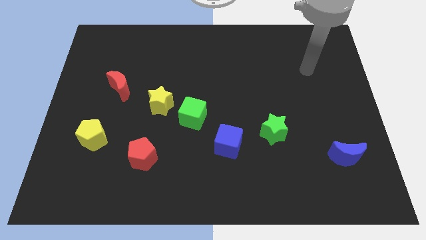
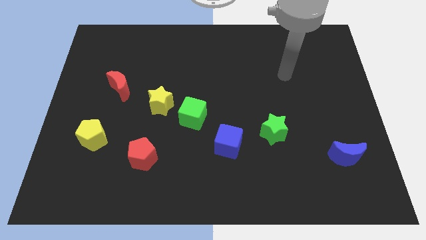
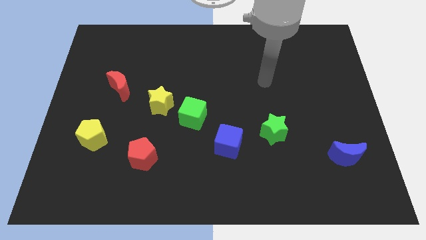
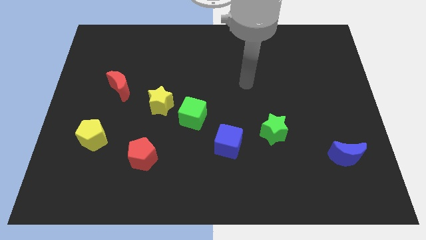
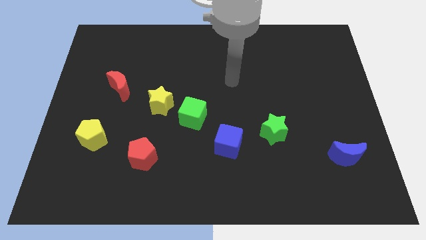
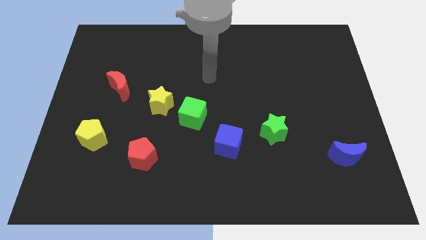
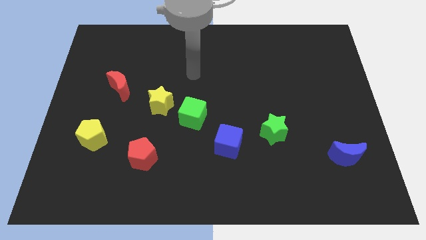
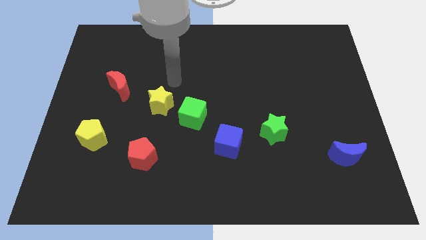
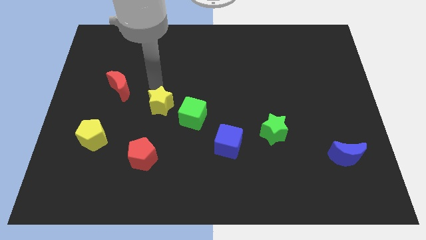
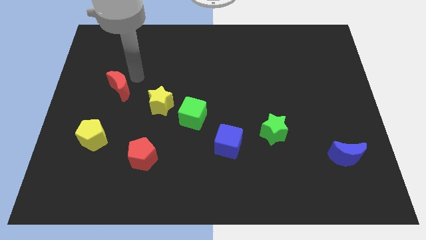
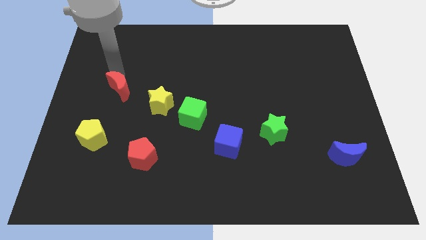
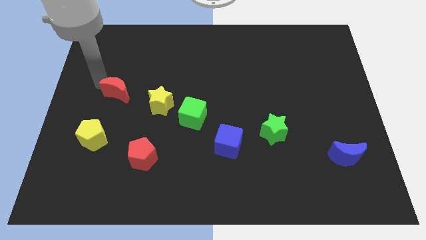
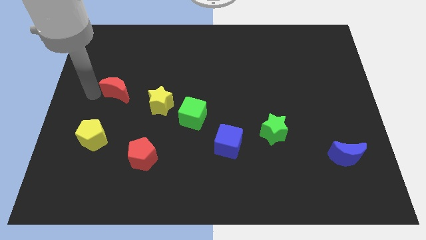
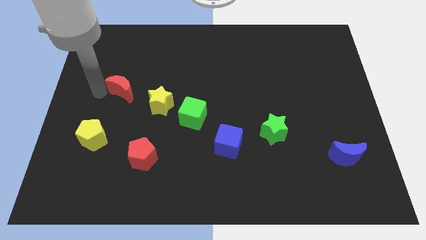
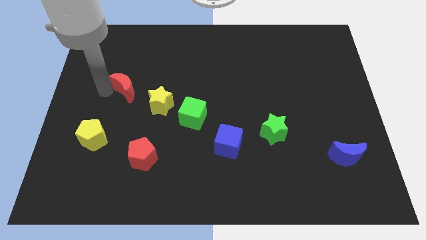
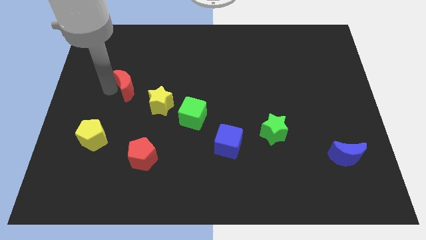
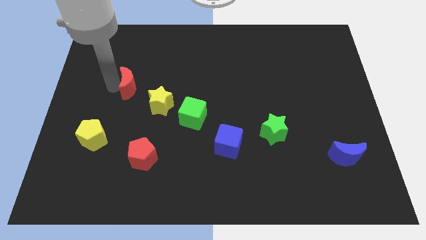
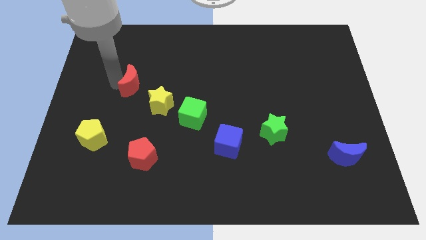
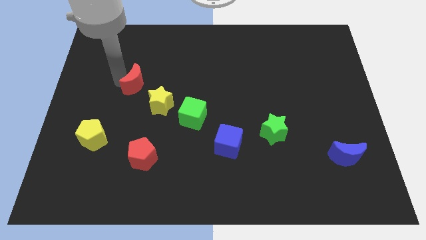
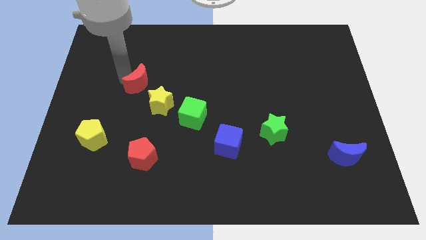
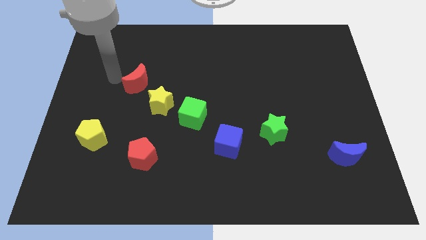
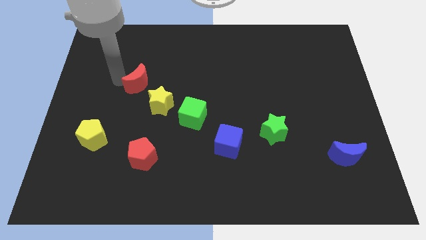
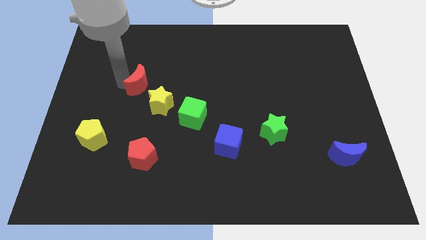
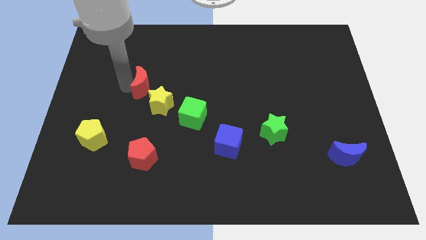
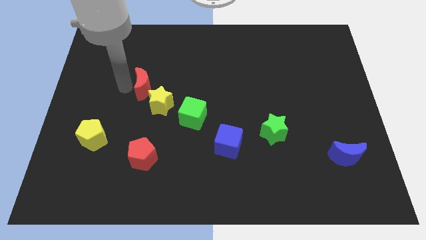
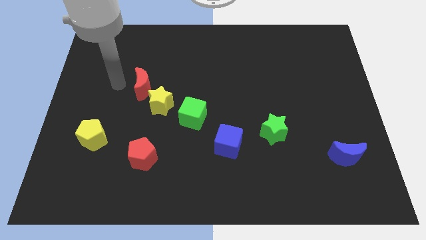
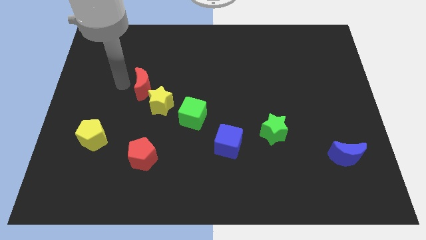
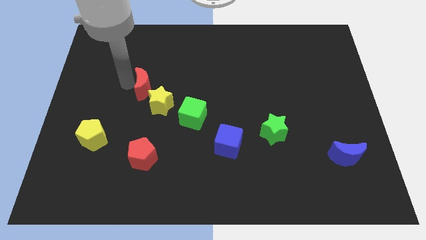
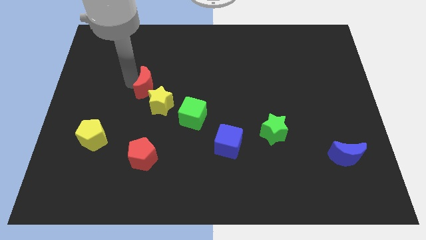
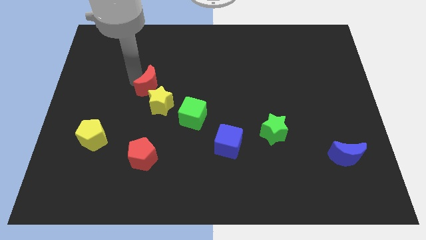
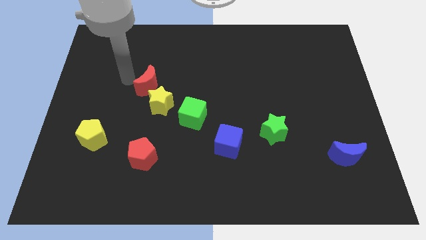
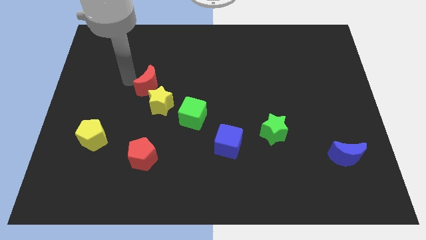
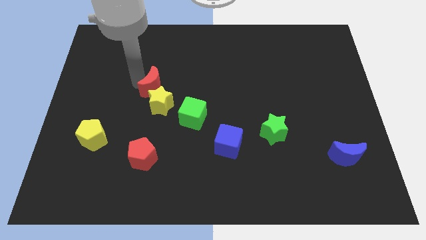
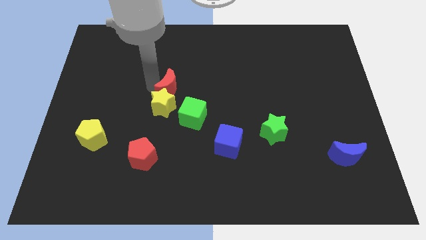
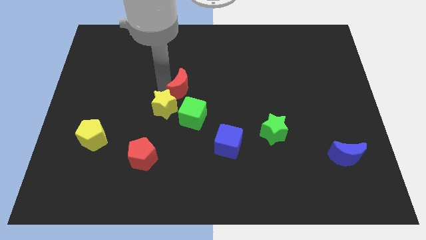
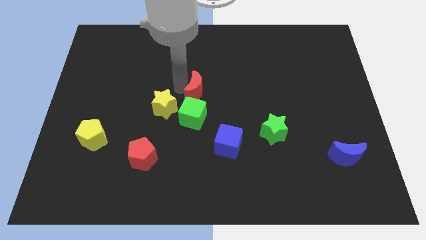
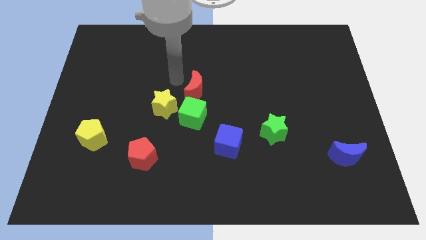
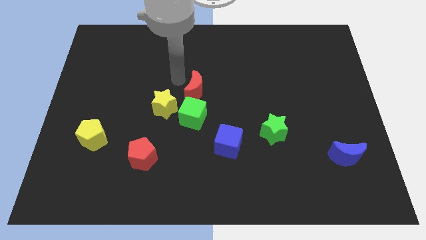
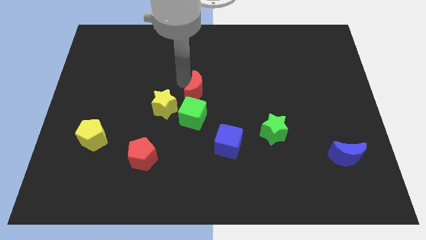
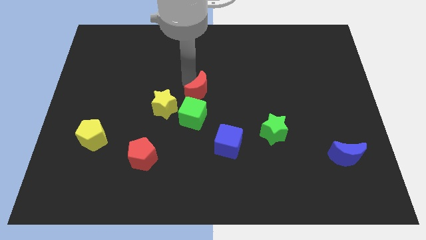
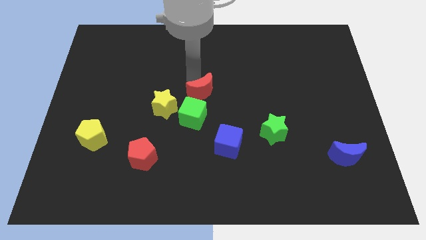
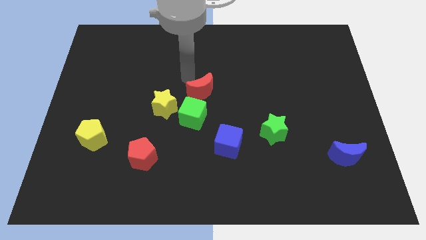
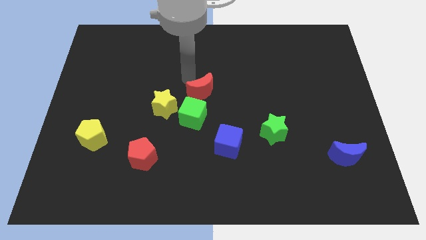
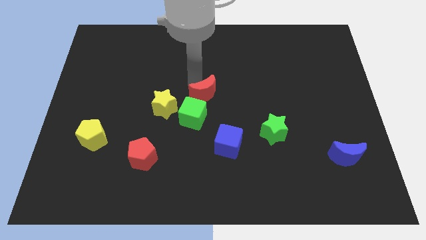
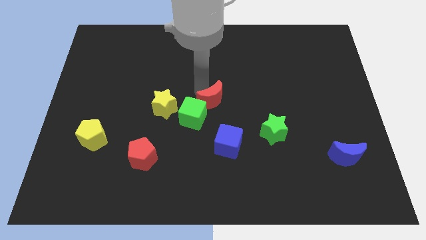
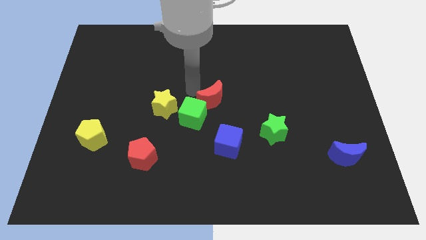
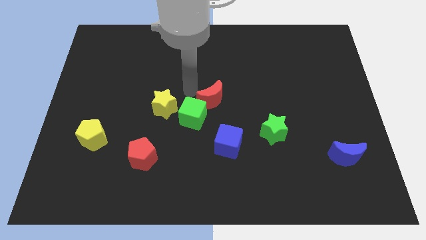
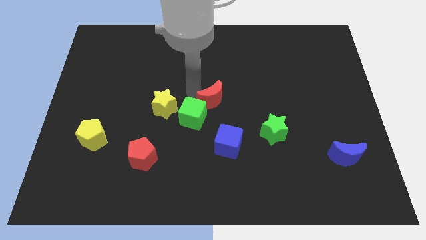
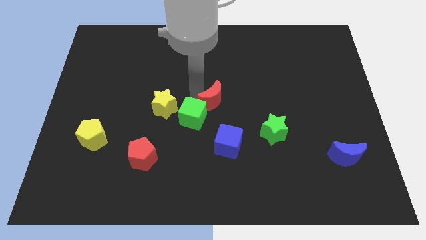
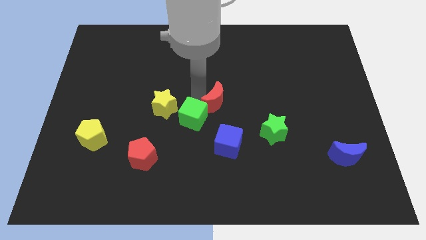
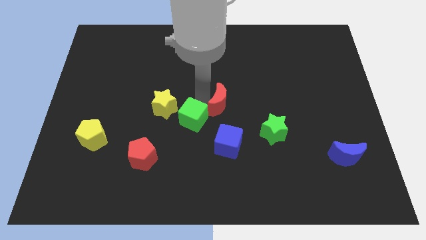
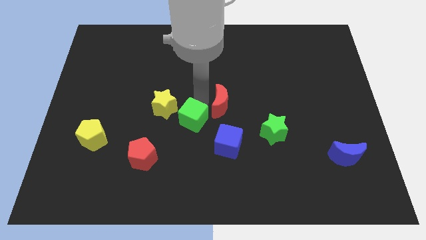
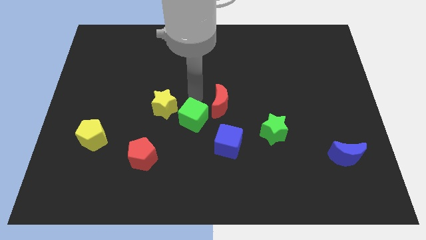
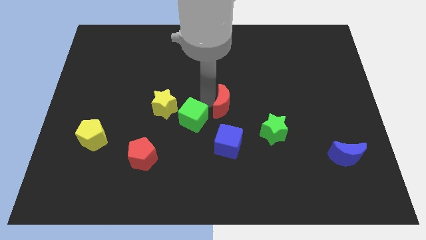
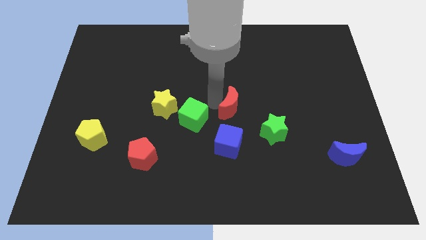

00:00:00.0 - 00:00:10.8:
move the red moon diagonally up and to the left of the green star

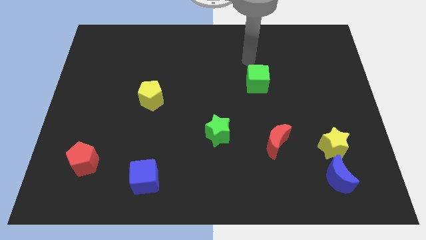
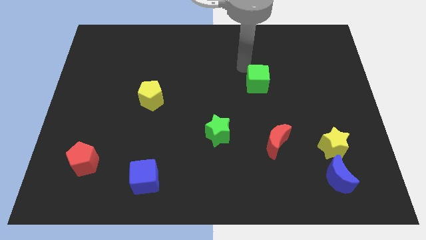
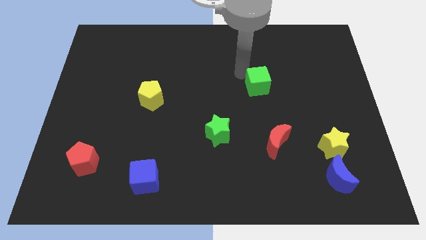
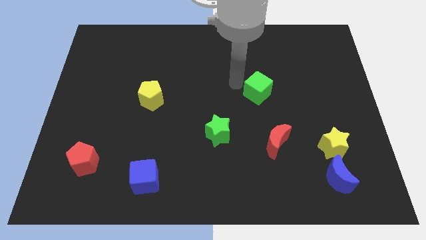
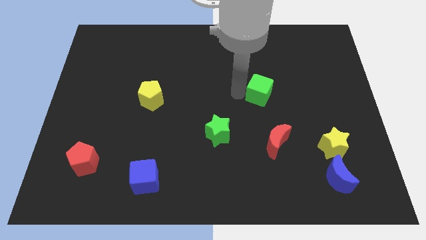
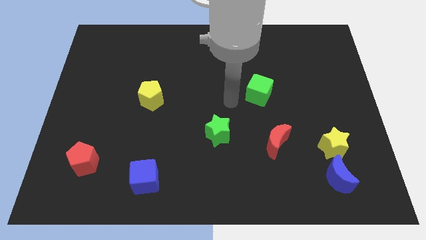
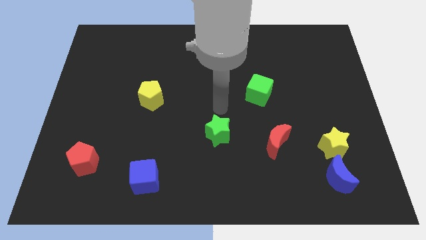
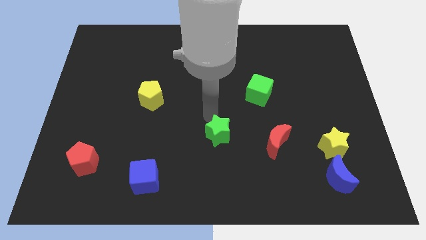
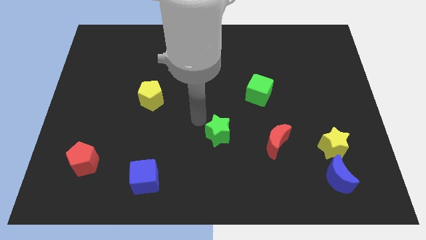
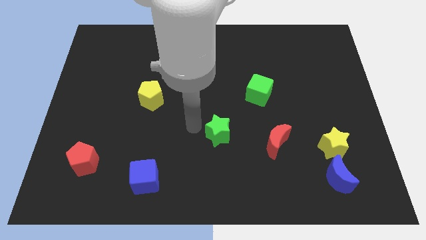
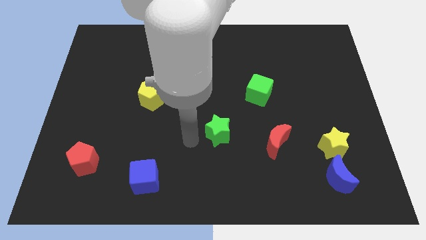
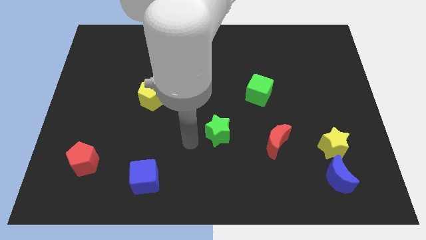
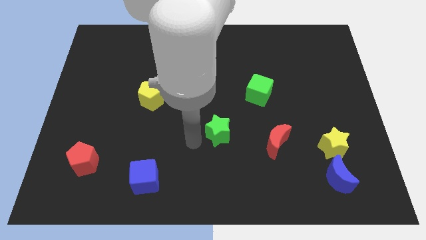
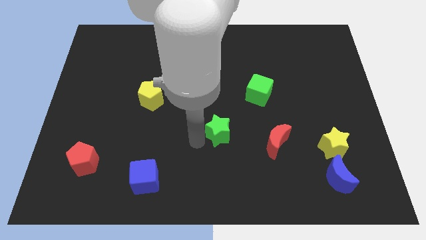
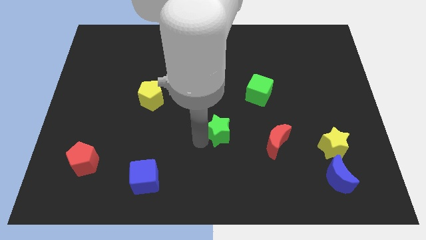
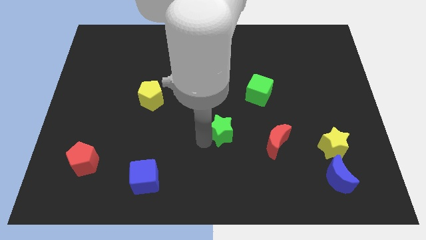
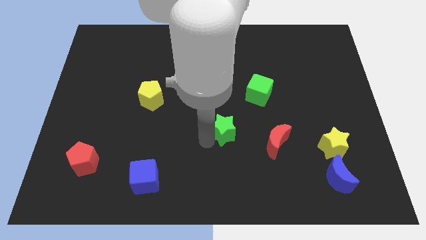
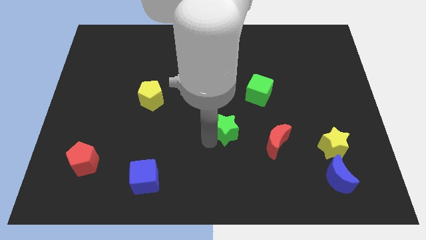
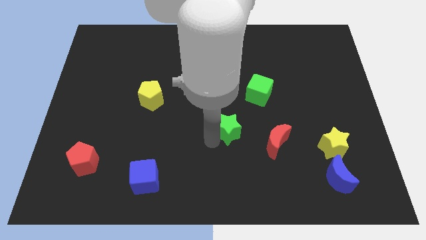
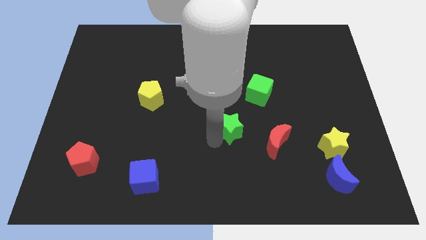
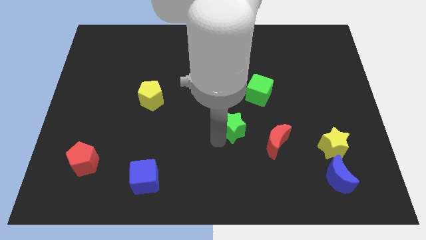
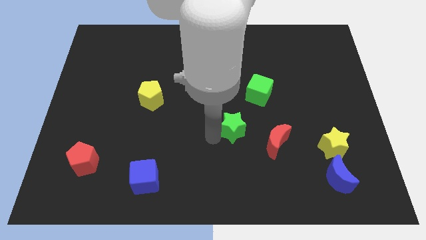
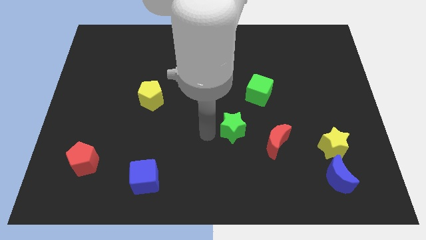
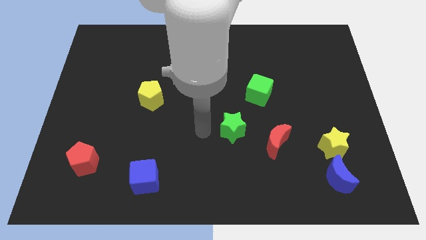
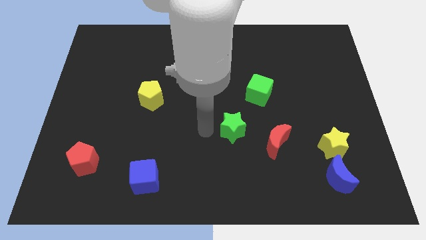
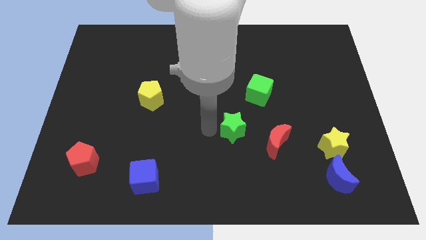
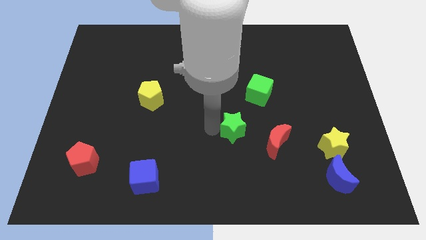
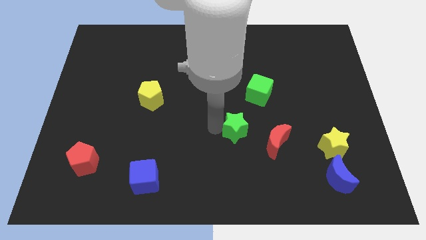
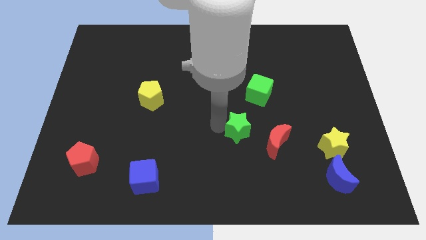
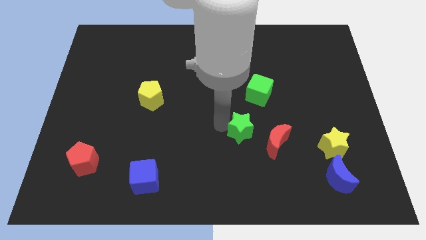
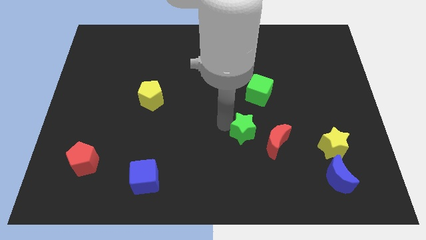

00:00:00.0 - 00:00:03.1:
move the green star to the bottom side of the green cube
